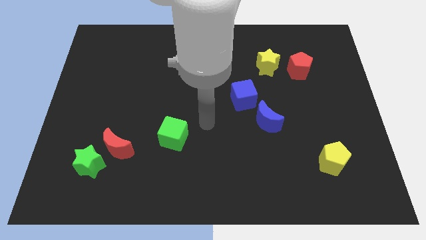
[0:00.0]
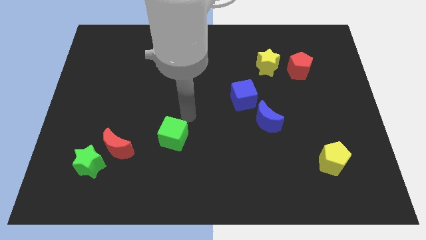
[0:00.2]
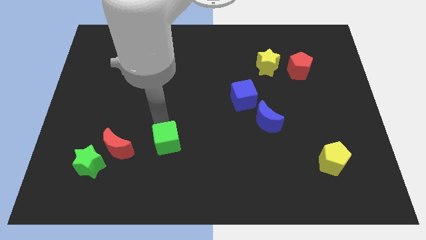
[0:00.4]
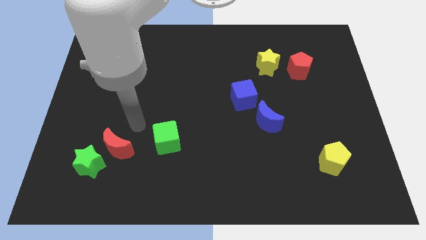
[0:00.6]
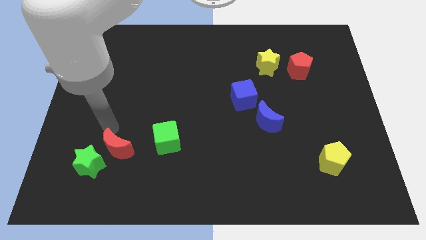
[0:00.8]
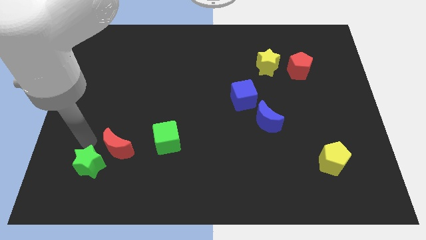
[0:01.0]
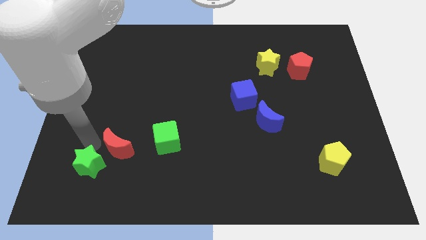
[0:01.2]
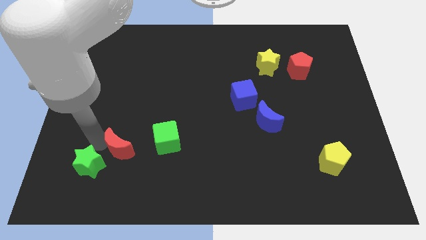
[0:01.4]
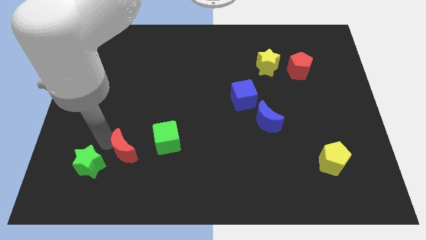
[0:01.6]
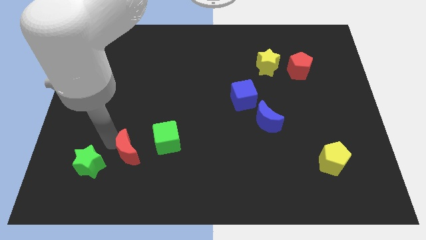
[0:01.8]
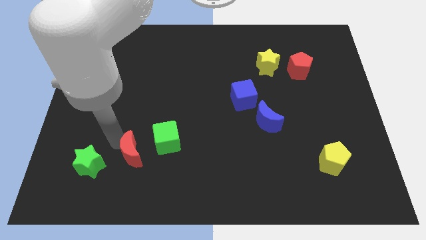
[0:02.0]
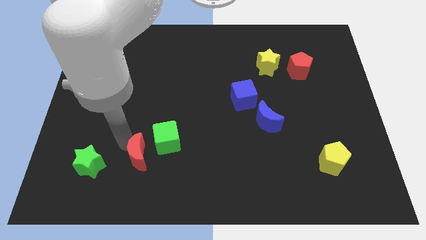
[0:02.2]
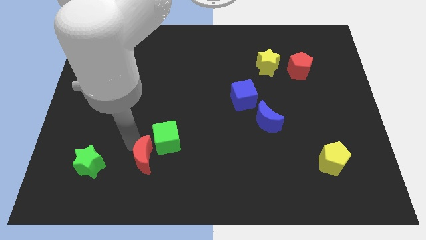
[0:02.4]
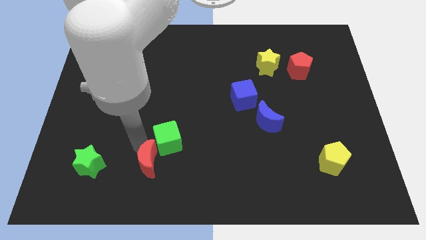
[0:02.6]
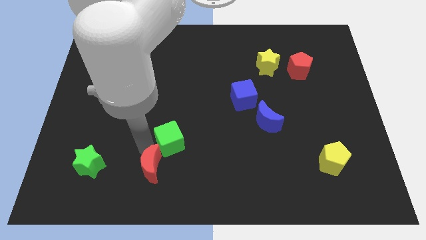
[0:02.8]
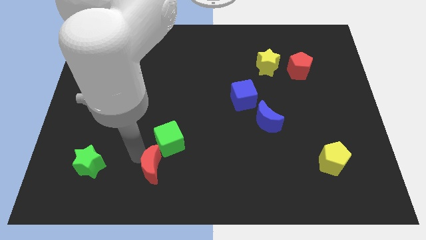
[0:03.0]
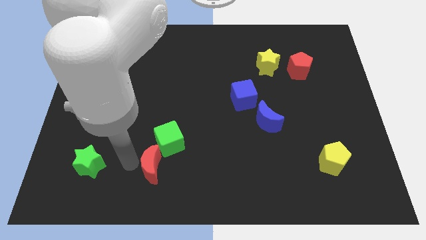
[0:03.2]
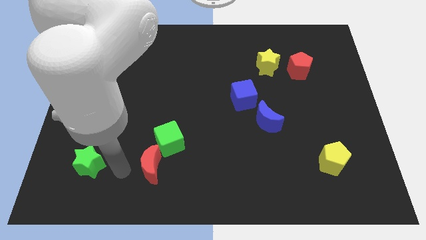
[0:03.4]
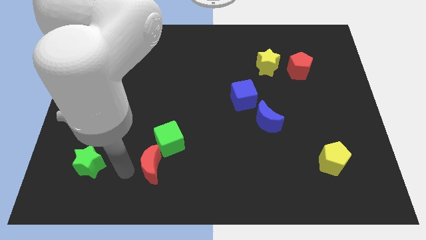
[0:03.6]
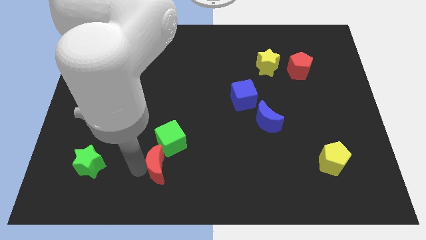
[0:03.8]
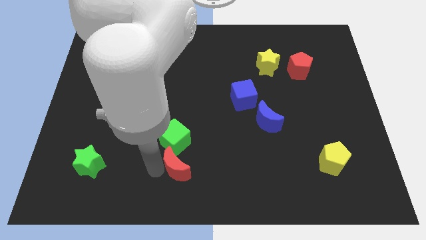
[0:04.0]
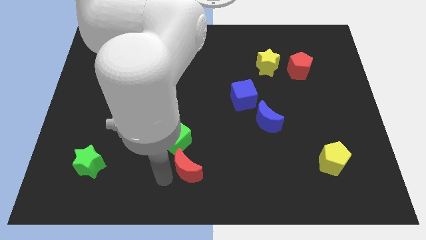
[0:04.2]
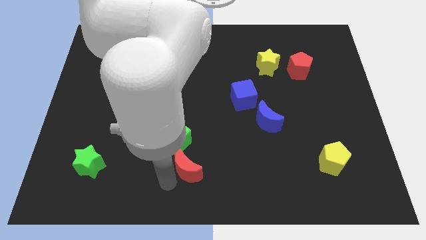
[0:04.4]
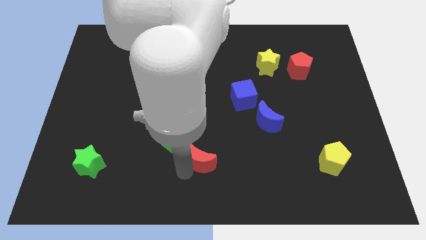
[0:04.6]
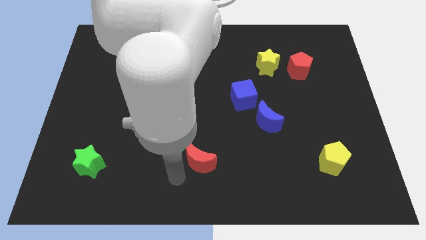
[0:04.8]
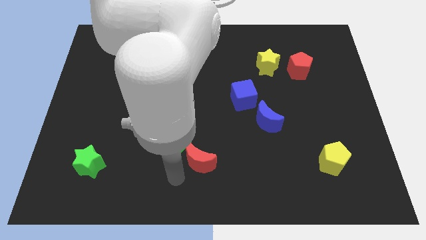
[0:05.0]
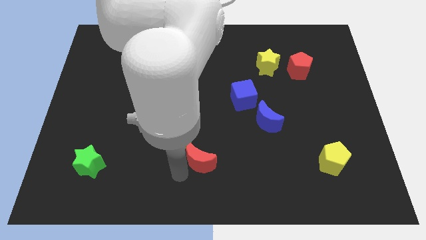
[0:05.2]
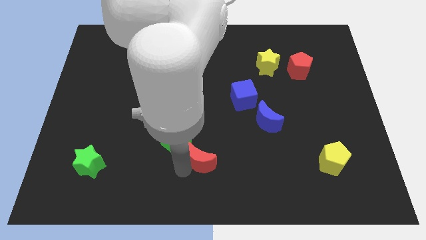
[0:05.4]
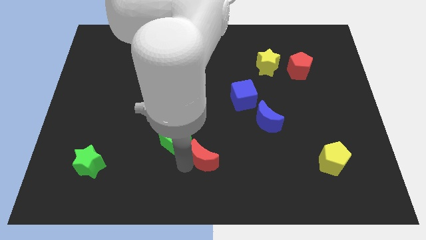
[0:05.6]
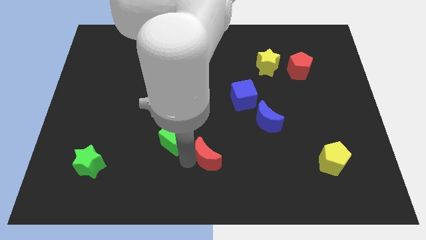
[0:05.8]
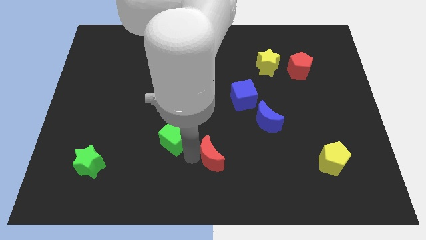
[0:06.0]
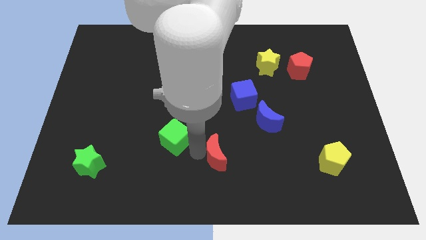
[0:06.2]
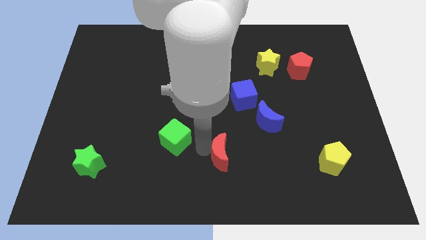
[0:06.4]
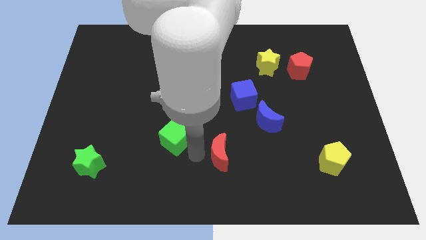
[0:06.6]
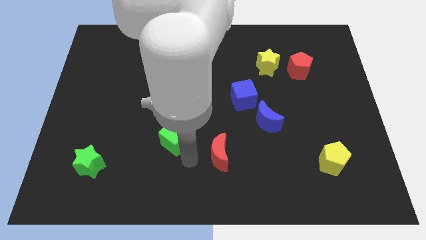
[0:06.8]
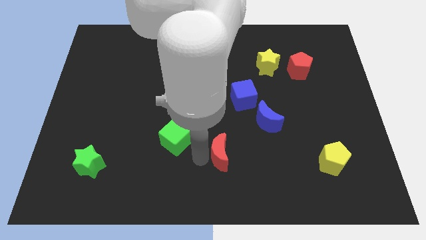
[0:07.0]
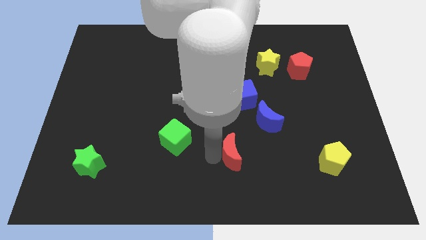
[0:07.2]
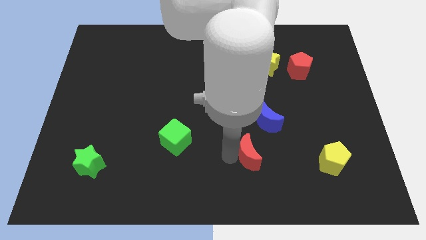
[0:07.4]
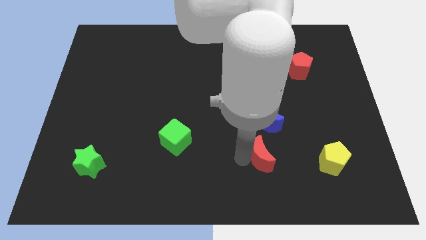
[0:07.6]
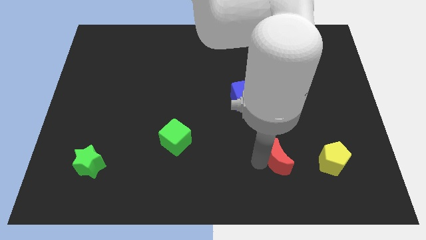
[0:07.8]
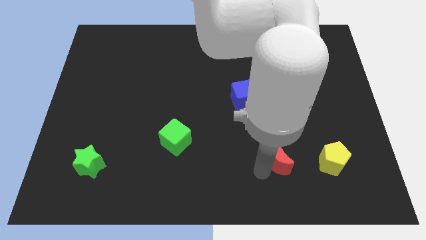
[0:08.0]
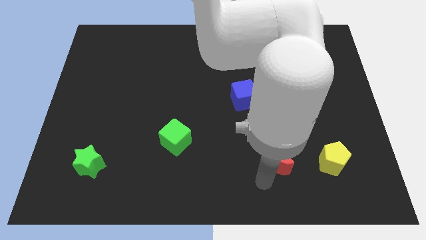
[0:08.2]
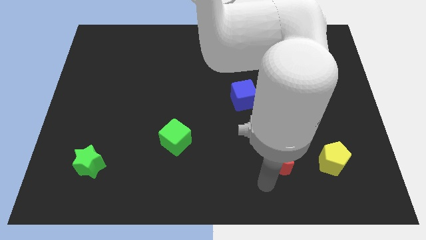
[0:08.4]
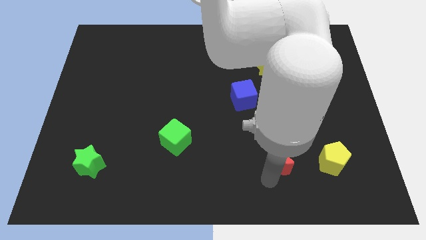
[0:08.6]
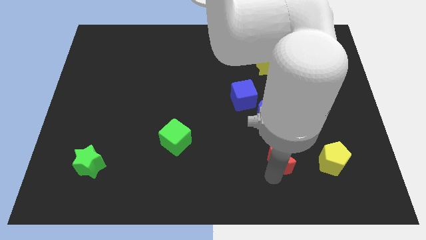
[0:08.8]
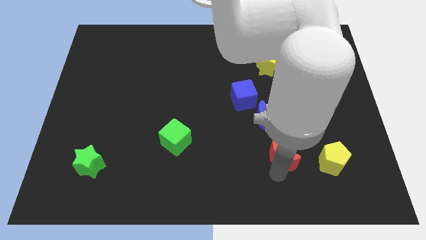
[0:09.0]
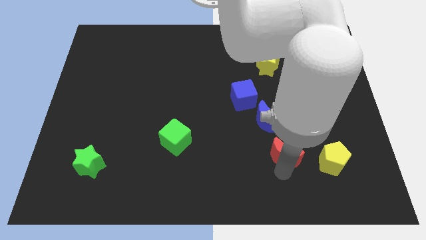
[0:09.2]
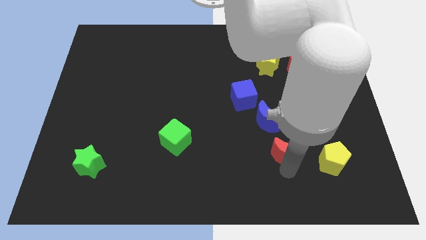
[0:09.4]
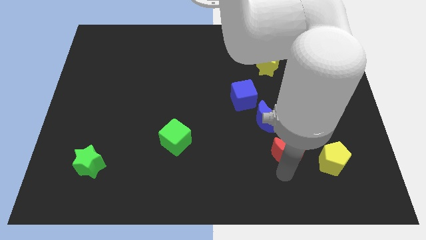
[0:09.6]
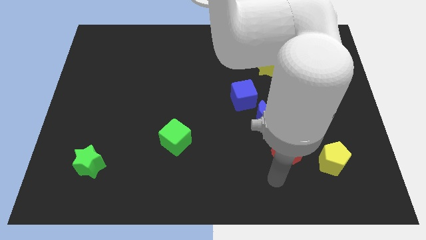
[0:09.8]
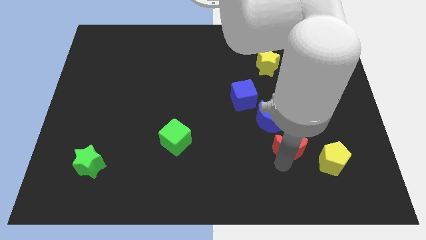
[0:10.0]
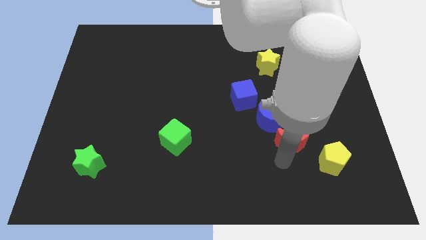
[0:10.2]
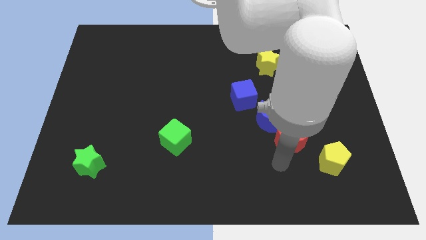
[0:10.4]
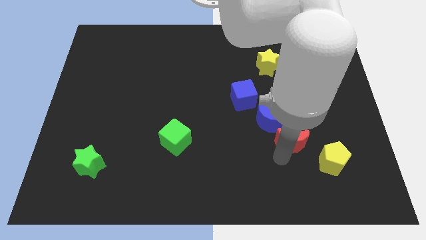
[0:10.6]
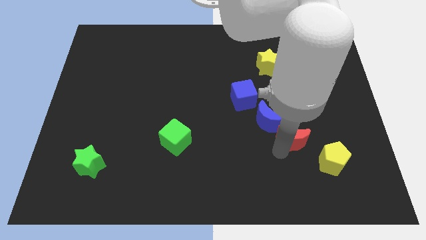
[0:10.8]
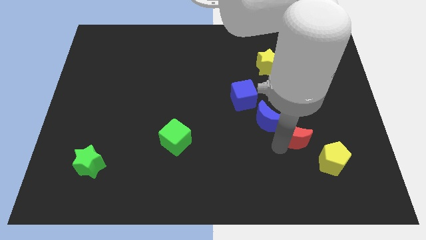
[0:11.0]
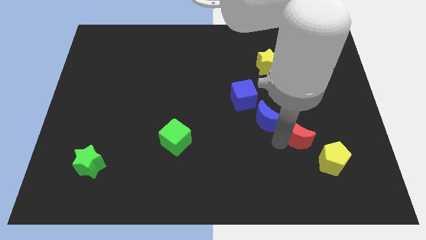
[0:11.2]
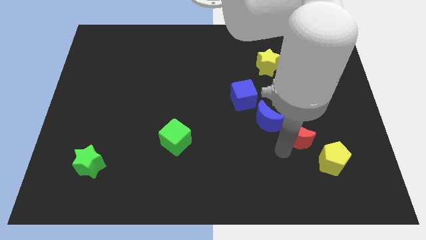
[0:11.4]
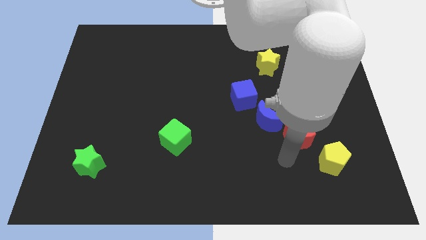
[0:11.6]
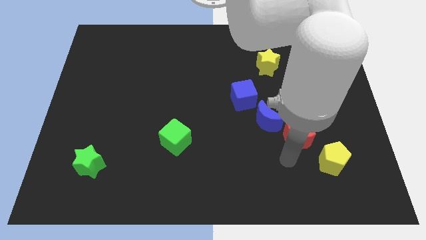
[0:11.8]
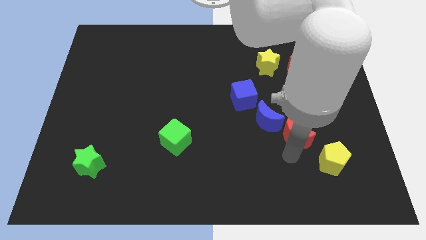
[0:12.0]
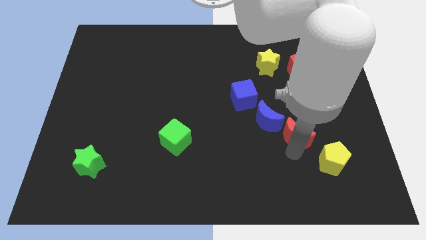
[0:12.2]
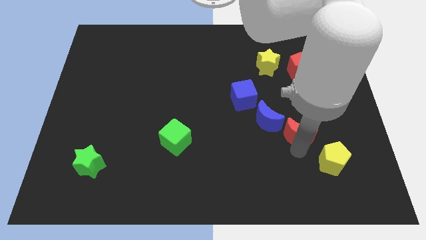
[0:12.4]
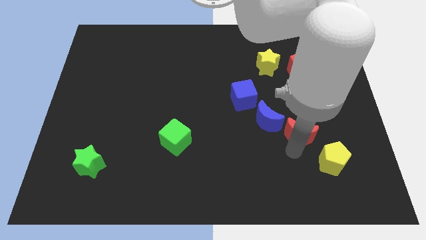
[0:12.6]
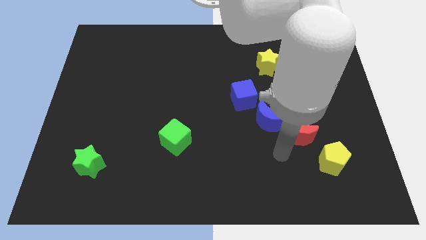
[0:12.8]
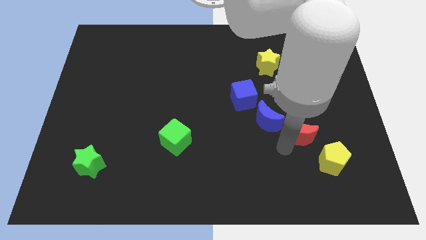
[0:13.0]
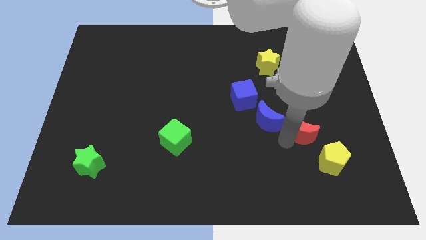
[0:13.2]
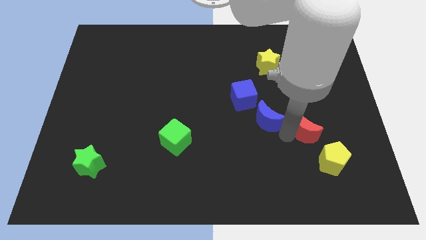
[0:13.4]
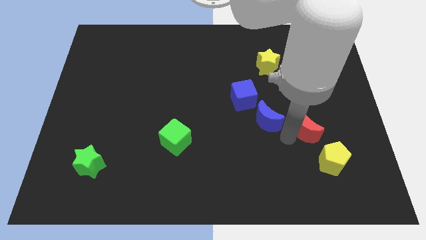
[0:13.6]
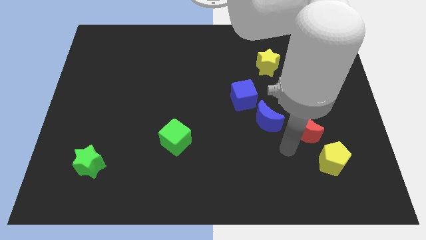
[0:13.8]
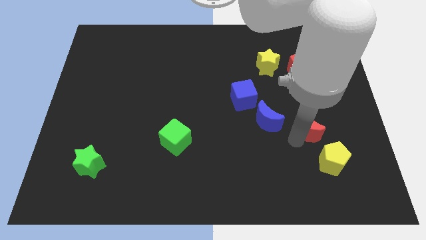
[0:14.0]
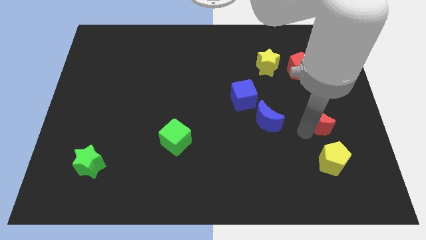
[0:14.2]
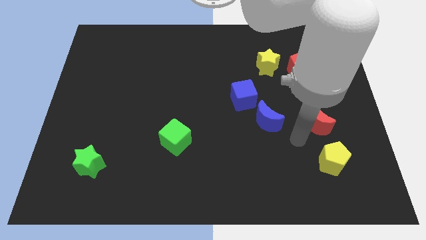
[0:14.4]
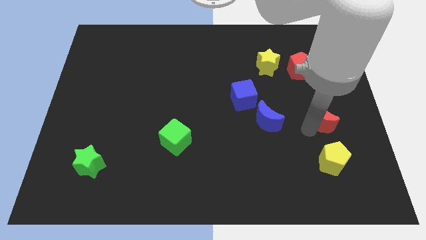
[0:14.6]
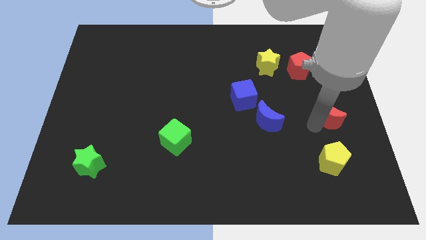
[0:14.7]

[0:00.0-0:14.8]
put the red moon to the right side of the board
